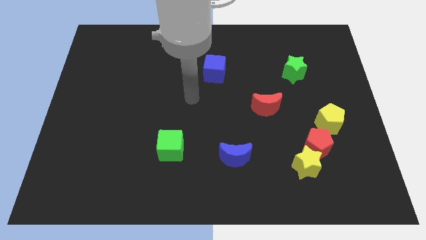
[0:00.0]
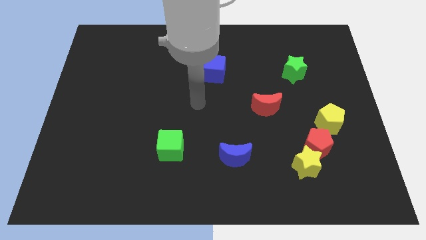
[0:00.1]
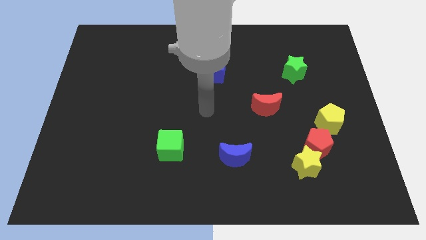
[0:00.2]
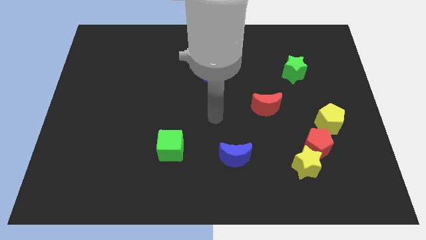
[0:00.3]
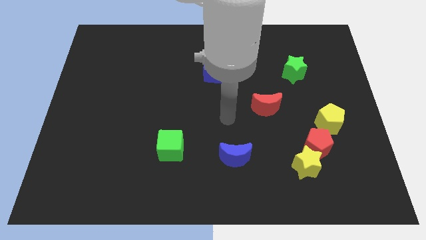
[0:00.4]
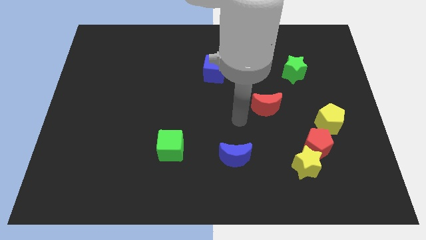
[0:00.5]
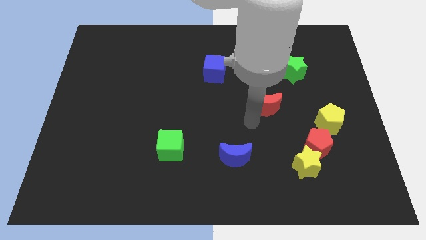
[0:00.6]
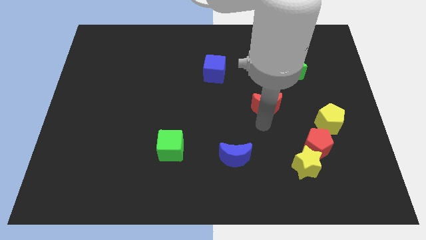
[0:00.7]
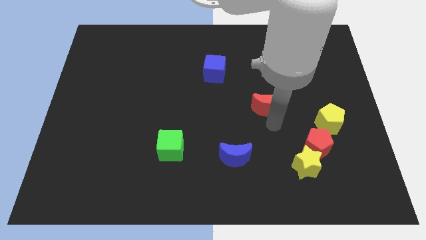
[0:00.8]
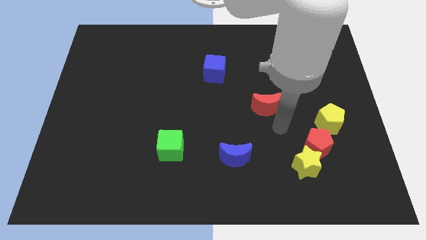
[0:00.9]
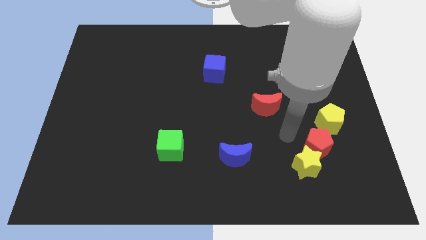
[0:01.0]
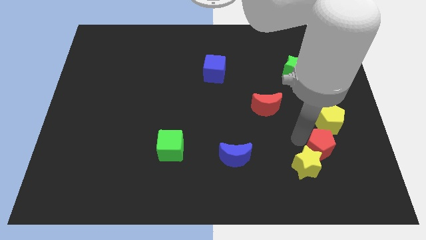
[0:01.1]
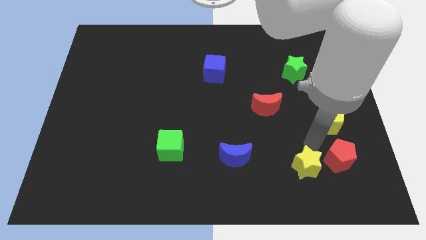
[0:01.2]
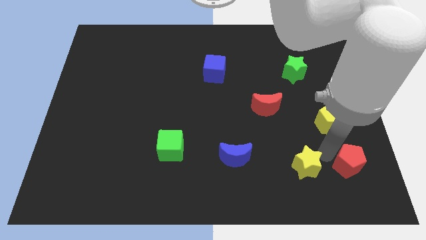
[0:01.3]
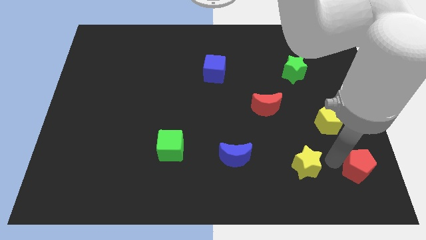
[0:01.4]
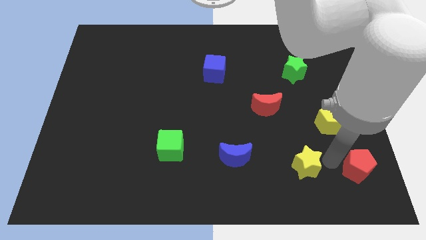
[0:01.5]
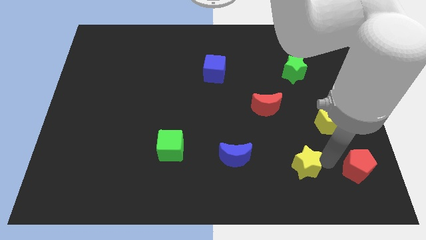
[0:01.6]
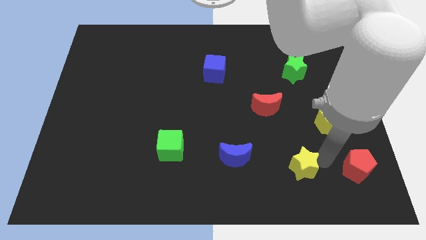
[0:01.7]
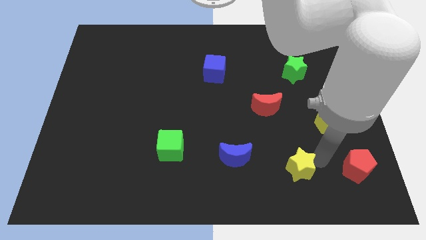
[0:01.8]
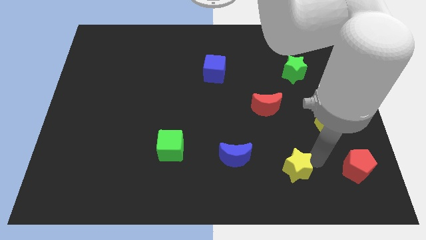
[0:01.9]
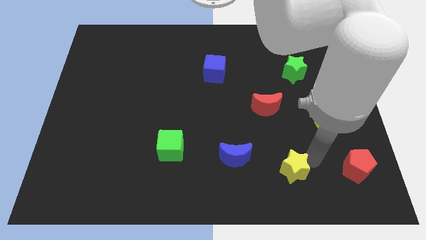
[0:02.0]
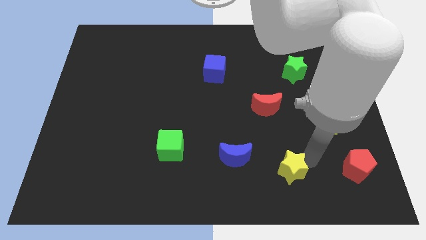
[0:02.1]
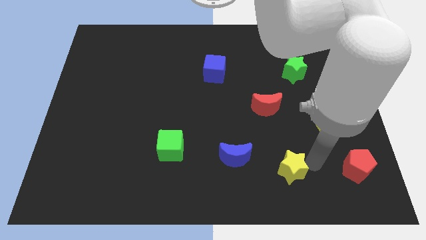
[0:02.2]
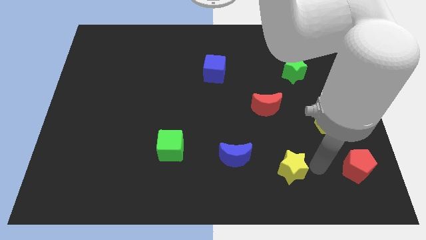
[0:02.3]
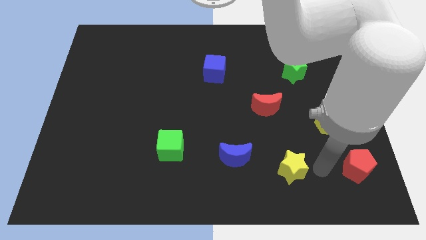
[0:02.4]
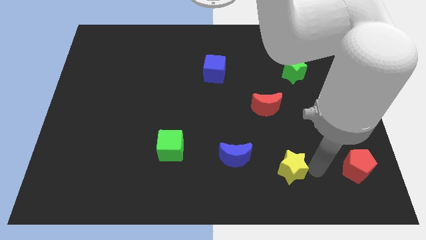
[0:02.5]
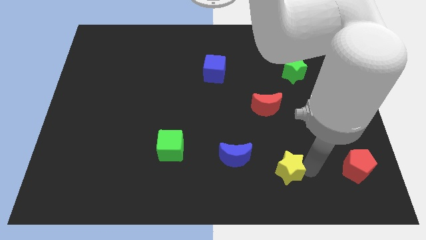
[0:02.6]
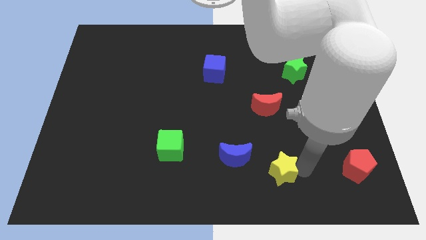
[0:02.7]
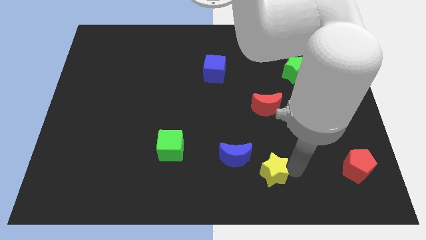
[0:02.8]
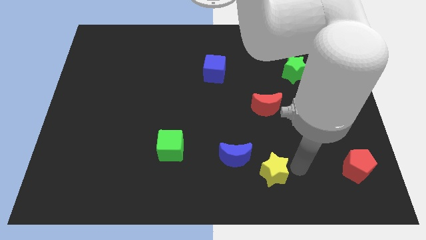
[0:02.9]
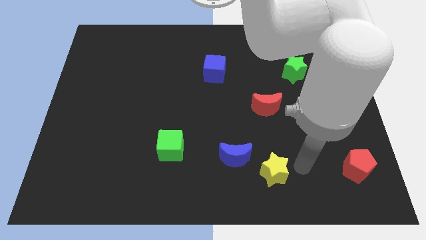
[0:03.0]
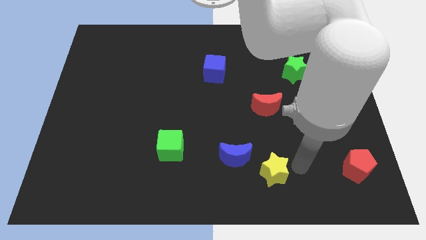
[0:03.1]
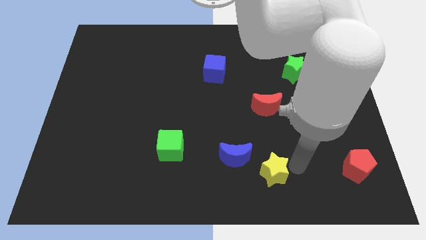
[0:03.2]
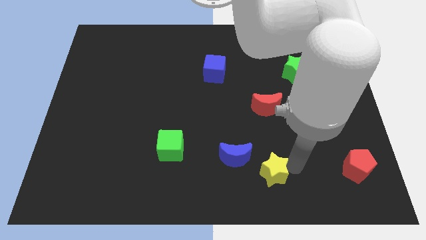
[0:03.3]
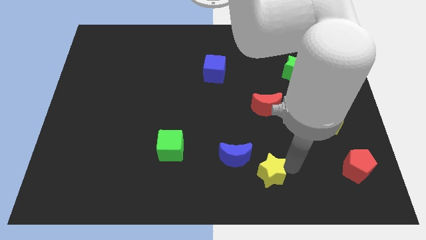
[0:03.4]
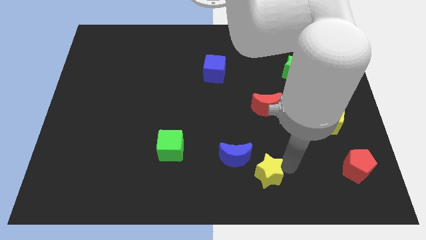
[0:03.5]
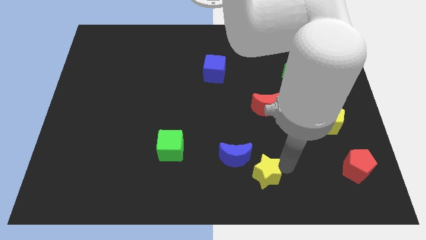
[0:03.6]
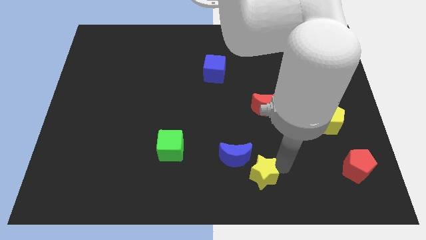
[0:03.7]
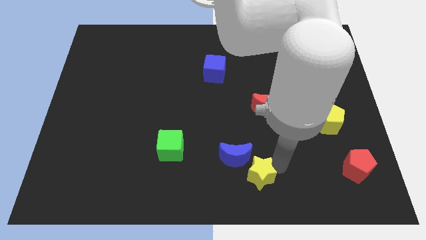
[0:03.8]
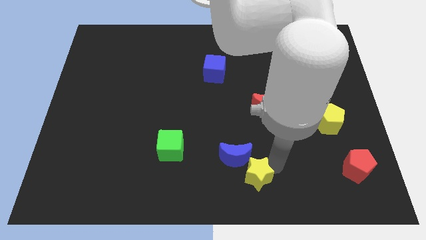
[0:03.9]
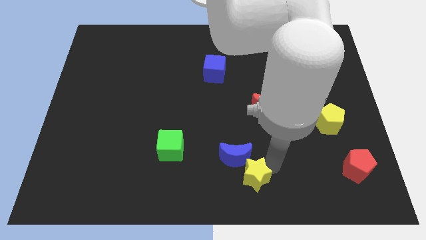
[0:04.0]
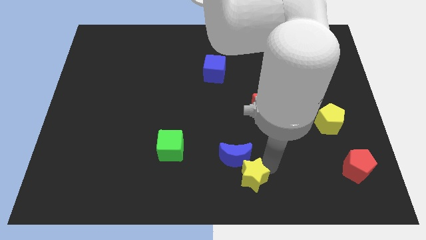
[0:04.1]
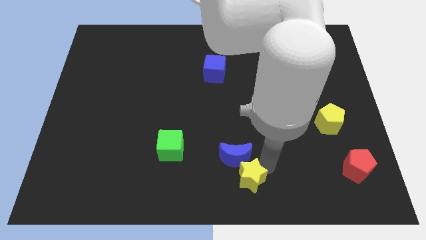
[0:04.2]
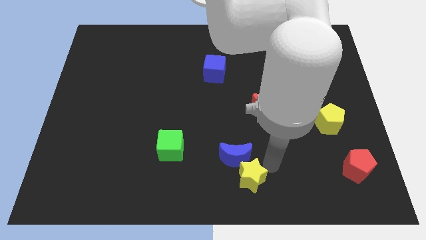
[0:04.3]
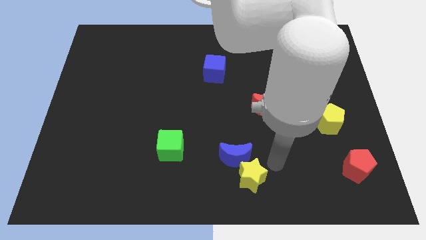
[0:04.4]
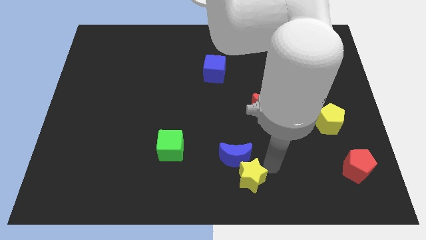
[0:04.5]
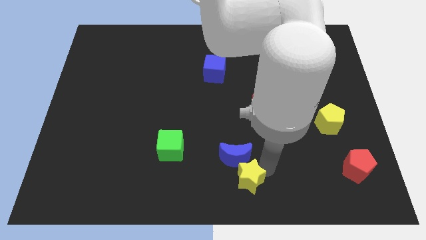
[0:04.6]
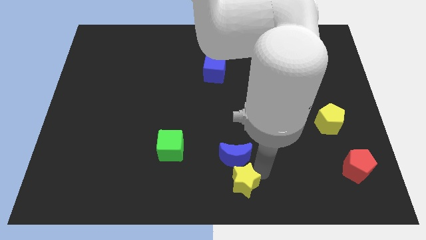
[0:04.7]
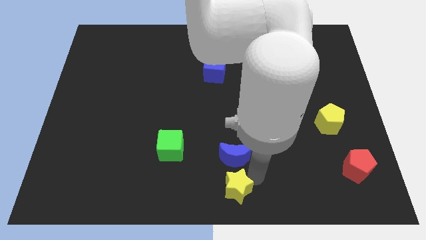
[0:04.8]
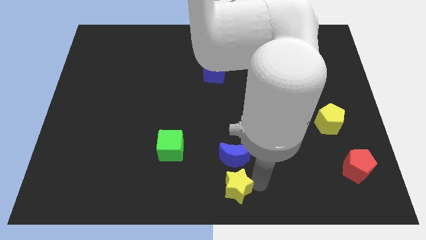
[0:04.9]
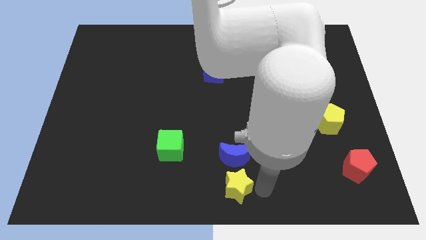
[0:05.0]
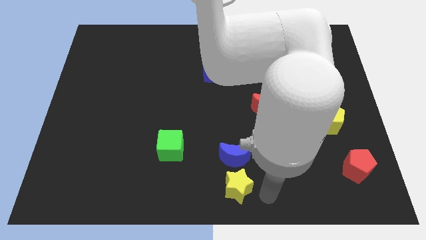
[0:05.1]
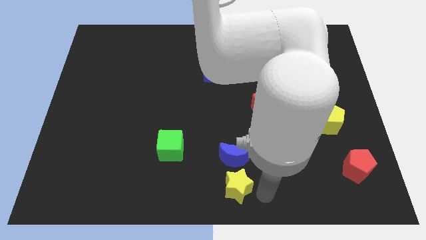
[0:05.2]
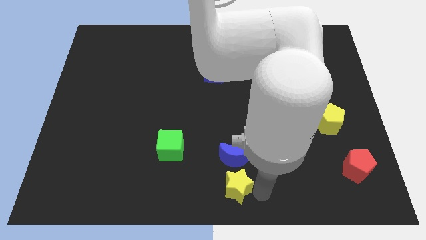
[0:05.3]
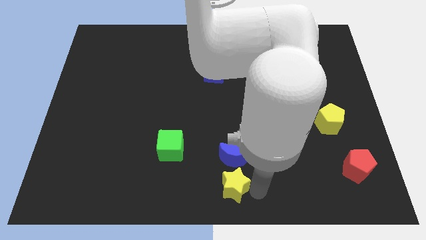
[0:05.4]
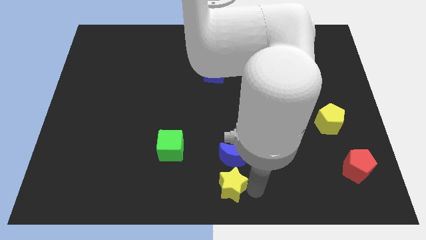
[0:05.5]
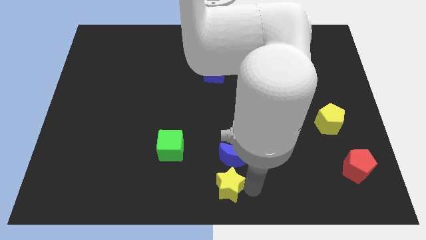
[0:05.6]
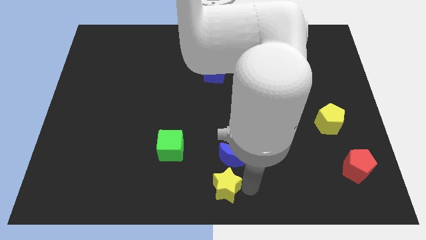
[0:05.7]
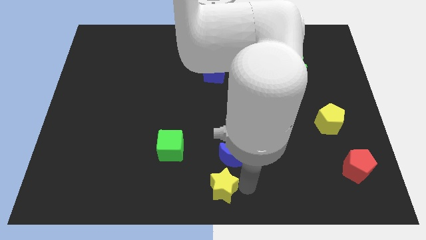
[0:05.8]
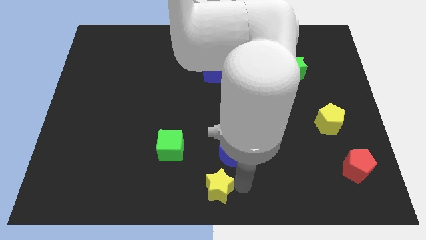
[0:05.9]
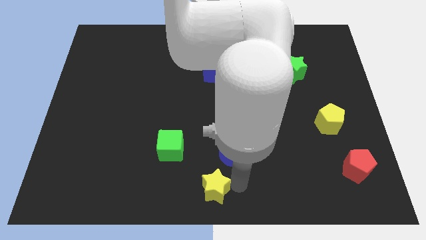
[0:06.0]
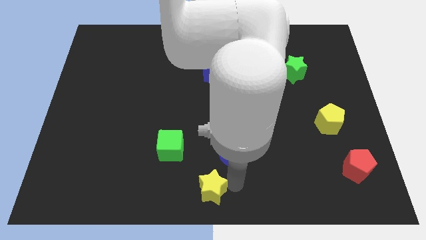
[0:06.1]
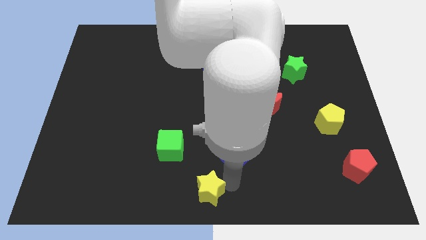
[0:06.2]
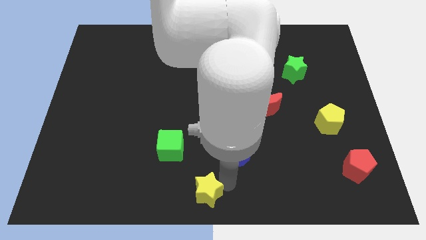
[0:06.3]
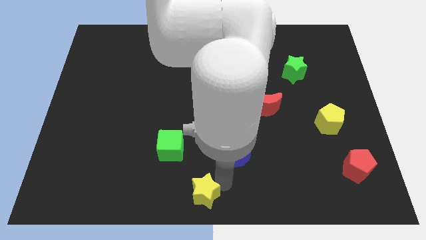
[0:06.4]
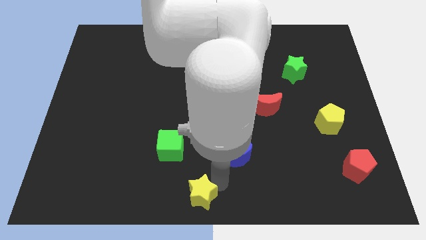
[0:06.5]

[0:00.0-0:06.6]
move the yellow star left

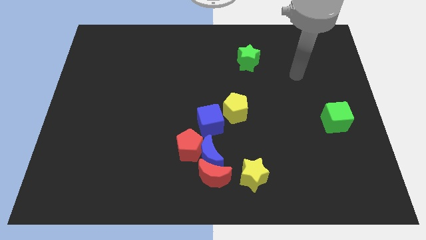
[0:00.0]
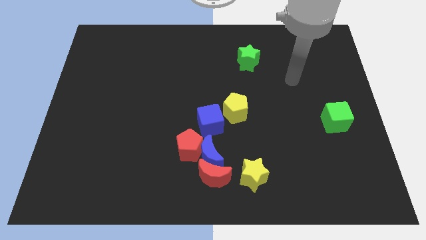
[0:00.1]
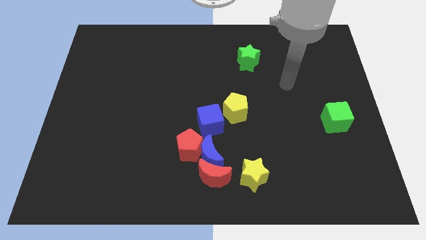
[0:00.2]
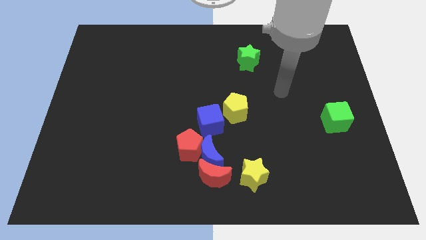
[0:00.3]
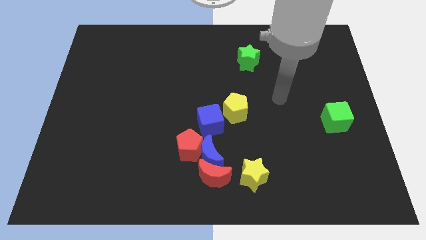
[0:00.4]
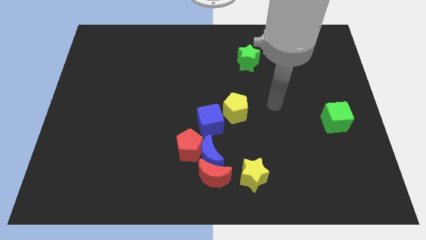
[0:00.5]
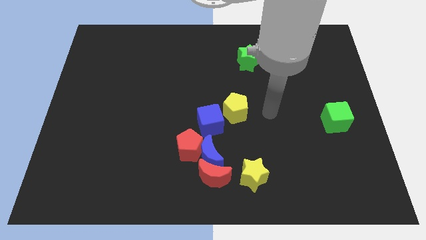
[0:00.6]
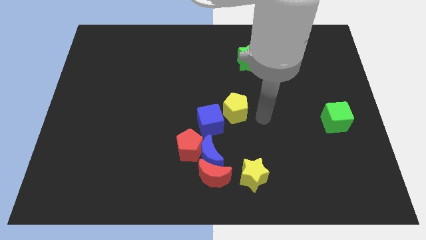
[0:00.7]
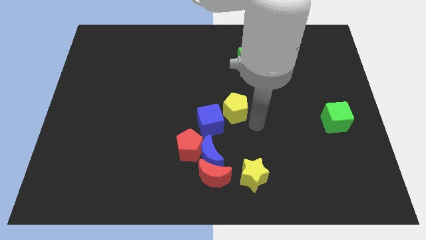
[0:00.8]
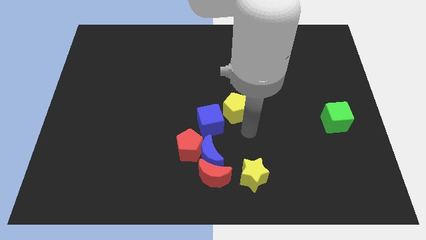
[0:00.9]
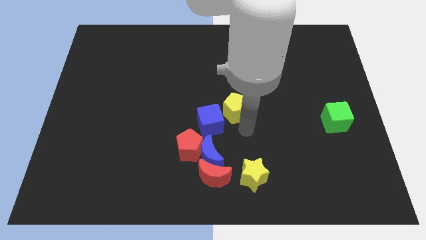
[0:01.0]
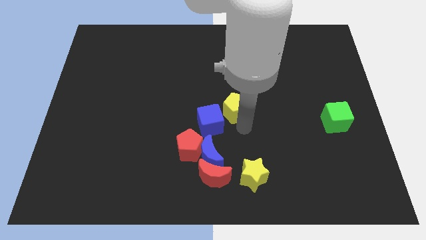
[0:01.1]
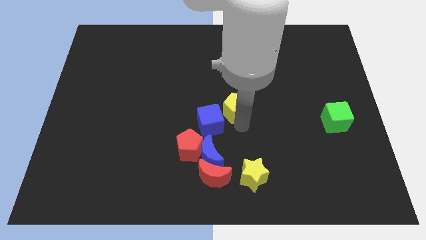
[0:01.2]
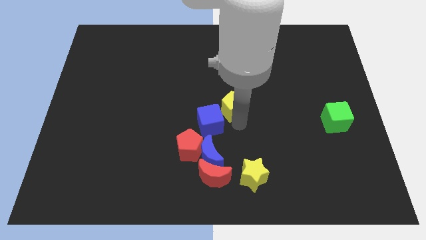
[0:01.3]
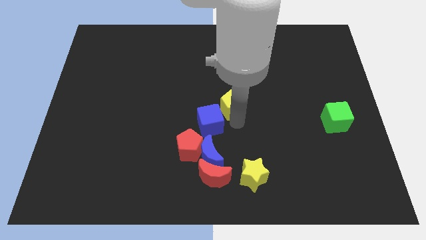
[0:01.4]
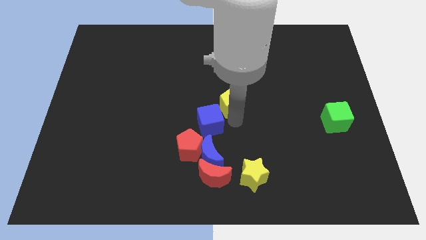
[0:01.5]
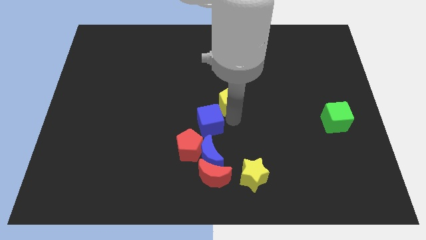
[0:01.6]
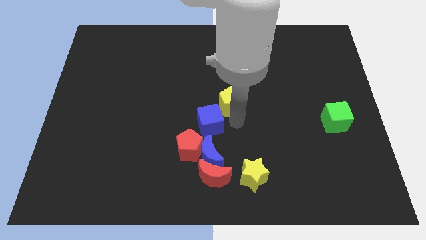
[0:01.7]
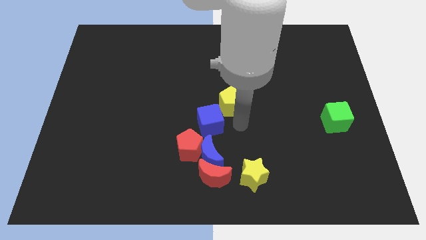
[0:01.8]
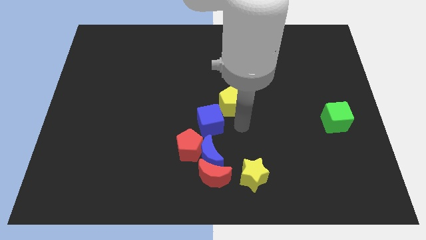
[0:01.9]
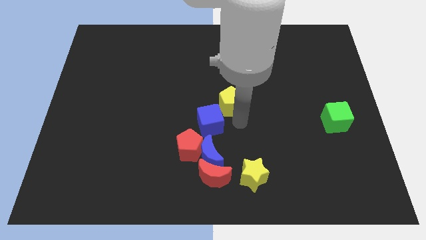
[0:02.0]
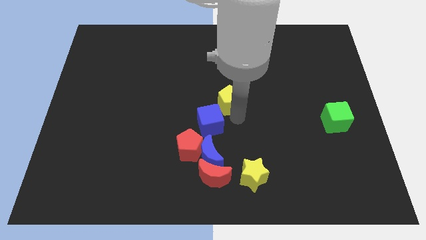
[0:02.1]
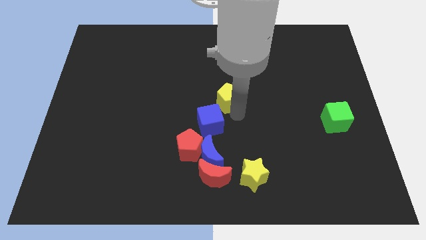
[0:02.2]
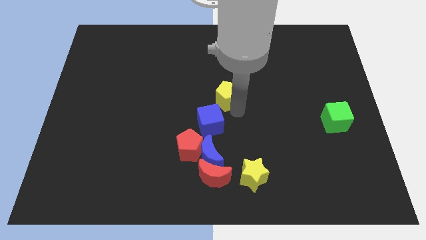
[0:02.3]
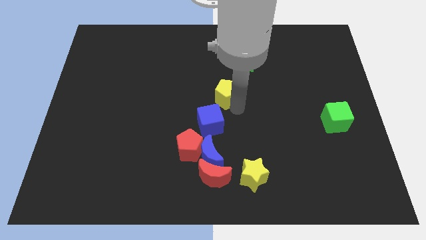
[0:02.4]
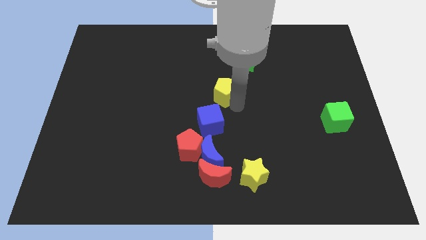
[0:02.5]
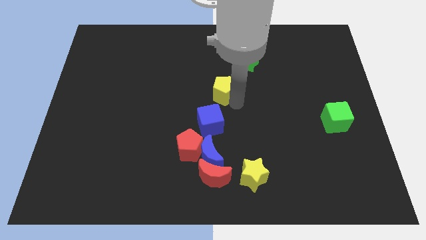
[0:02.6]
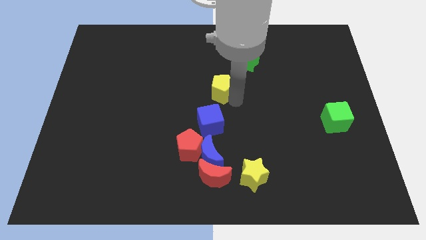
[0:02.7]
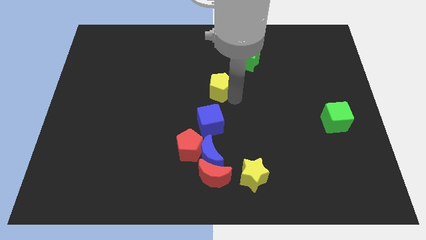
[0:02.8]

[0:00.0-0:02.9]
slide the yellow pentagon upwards and left slightly
